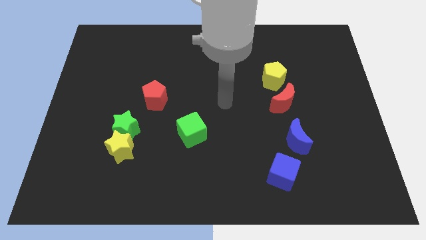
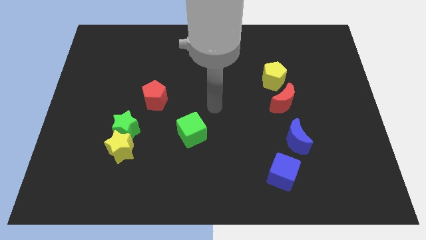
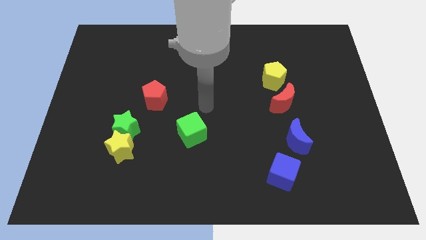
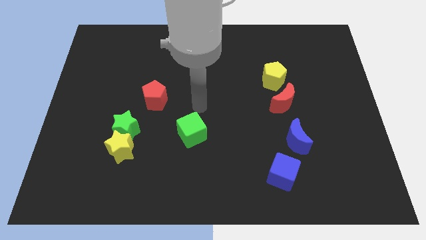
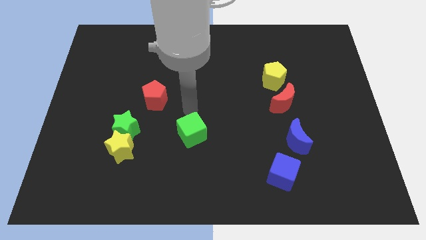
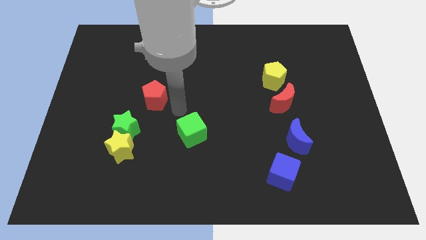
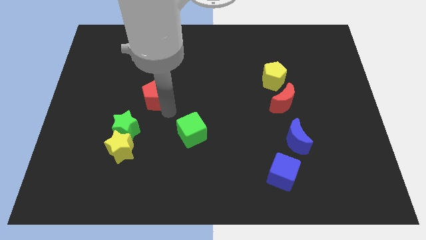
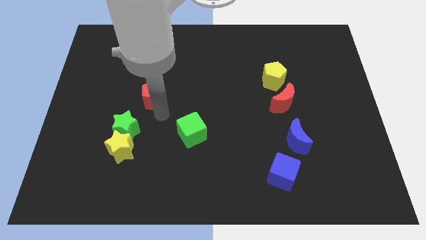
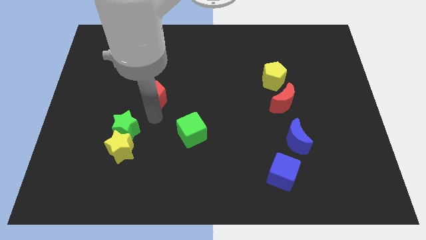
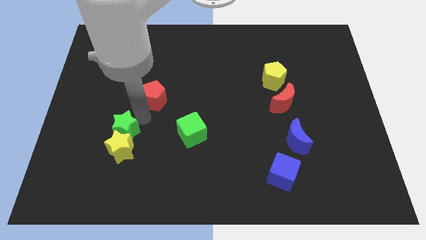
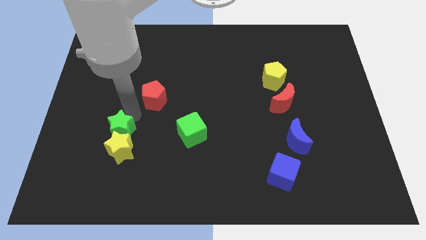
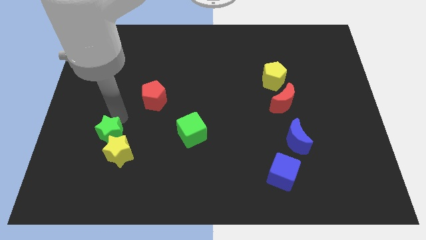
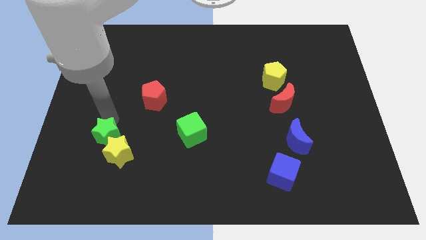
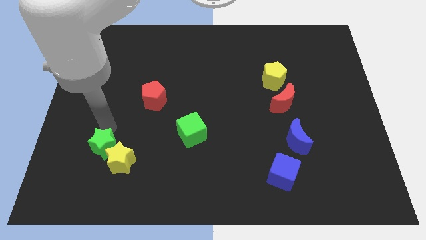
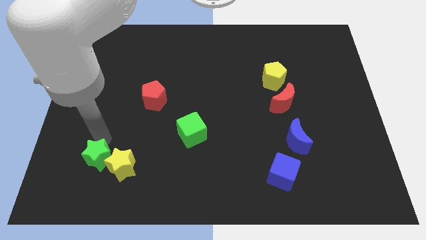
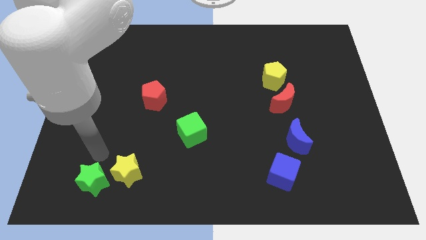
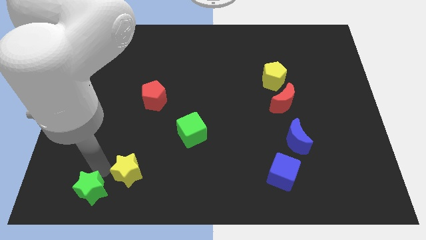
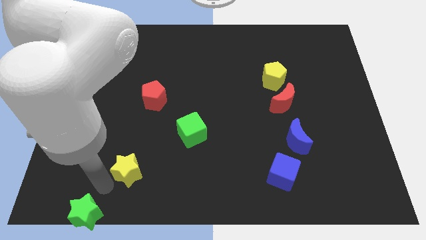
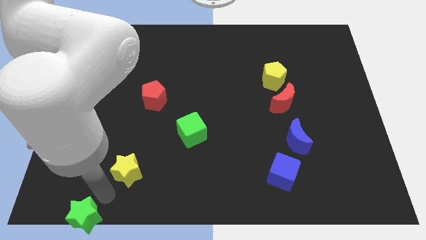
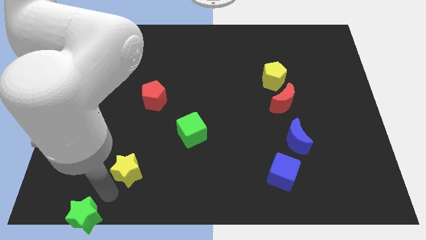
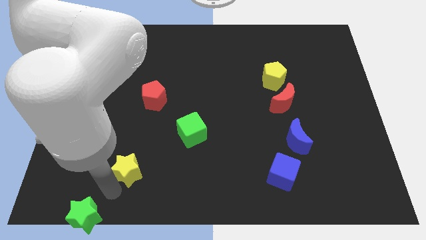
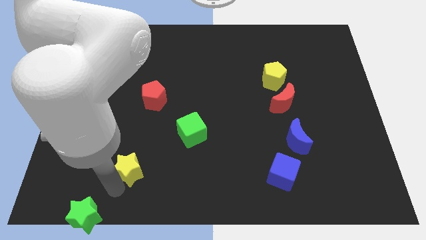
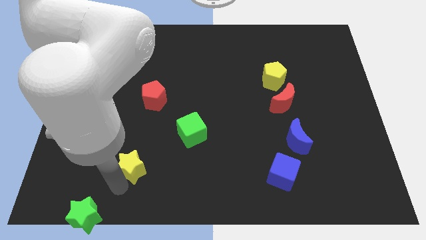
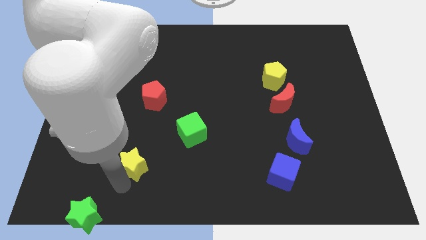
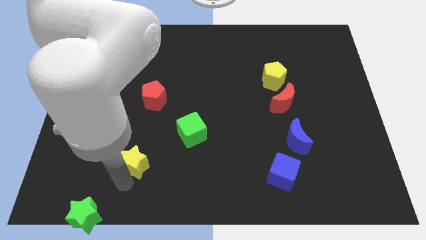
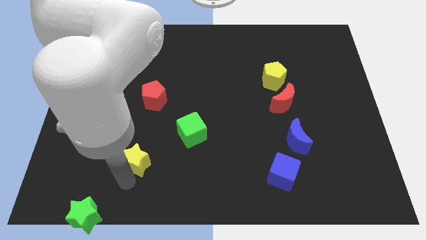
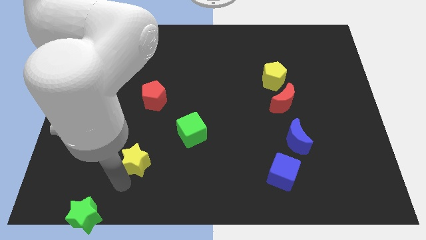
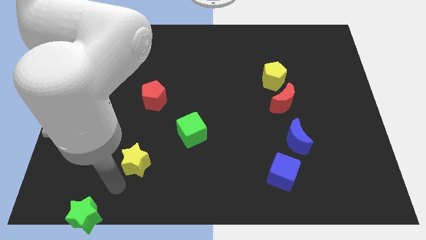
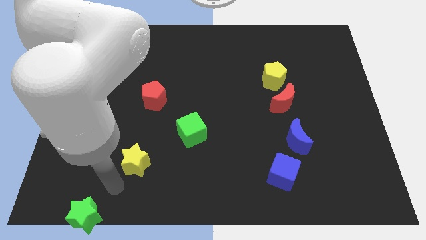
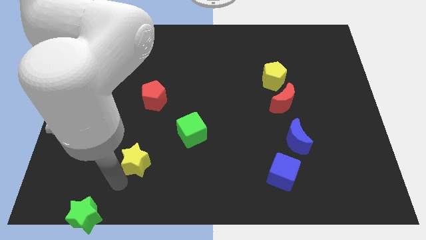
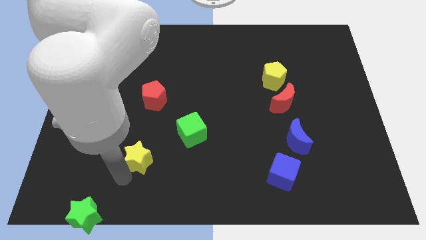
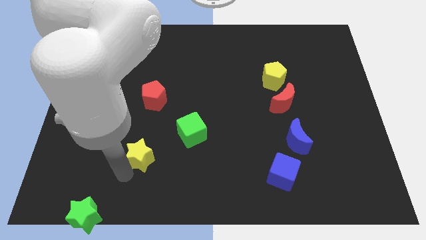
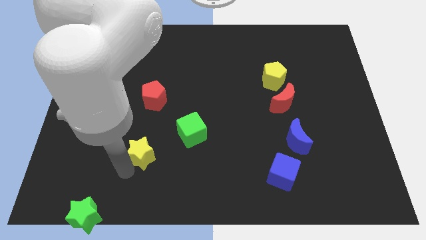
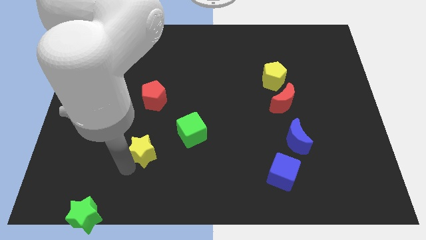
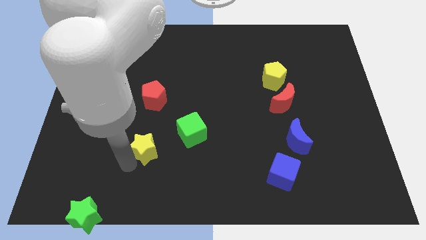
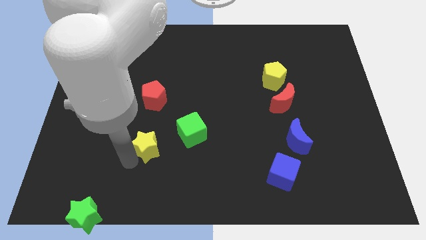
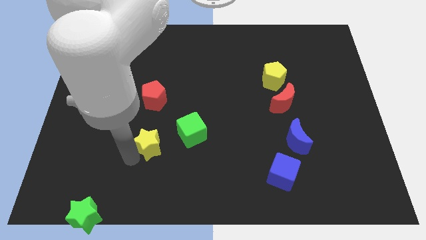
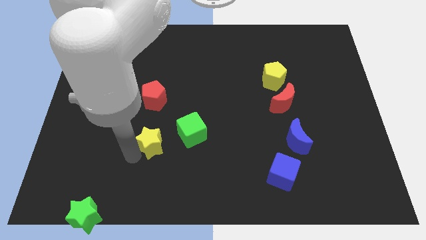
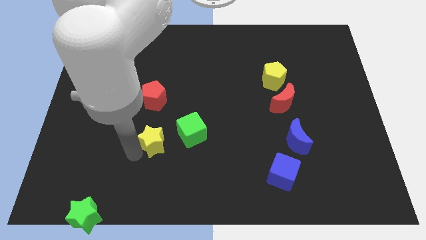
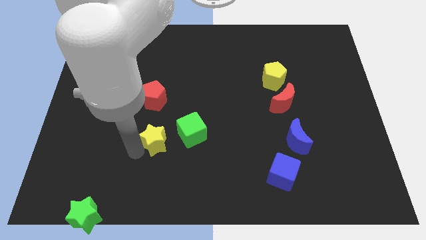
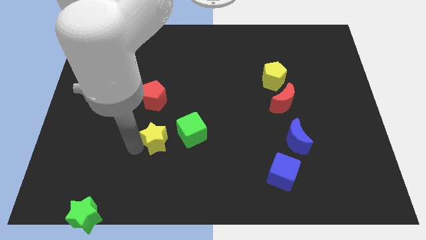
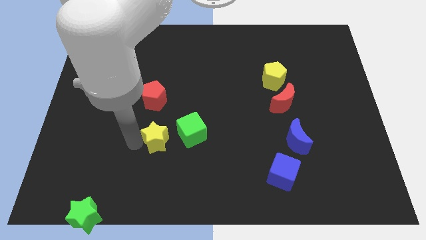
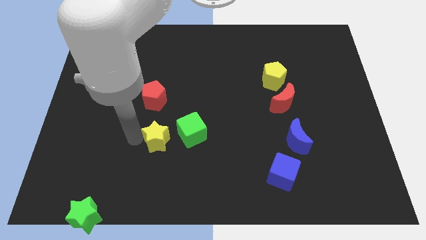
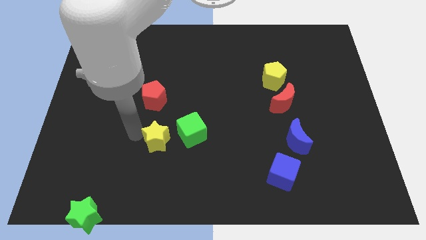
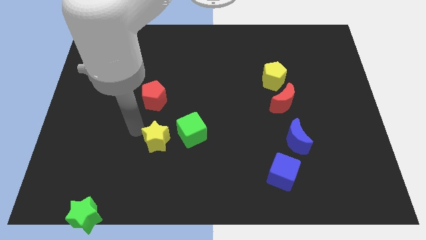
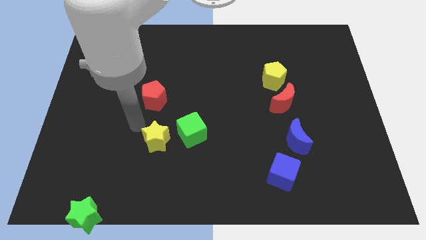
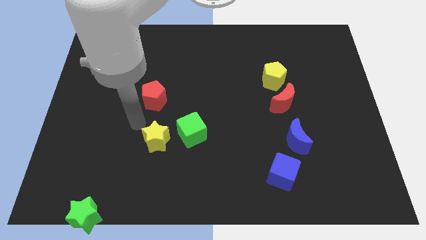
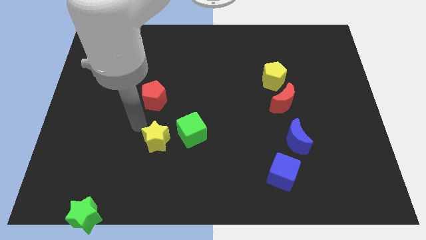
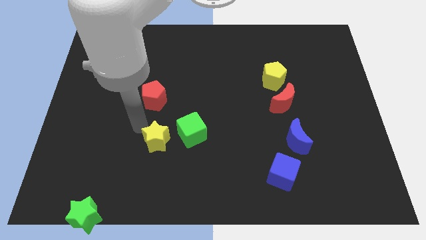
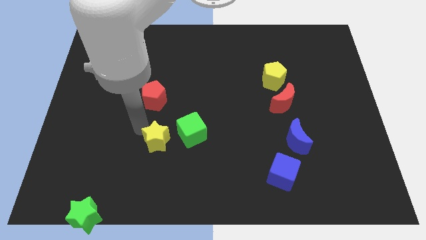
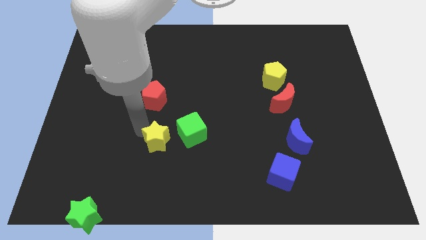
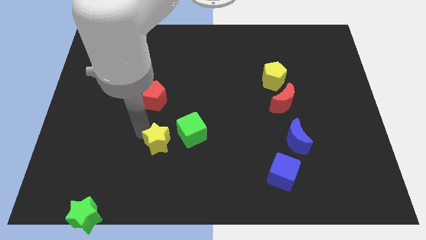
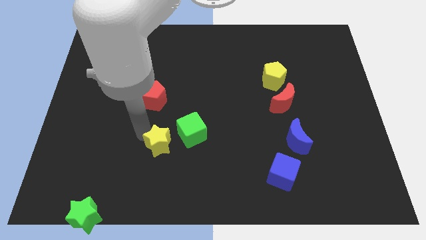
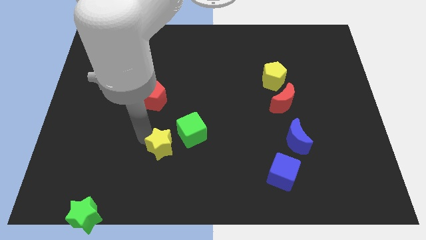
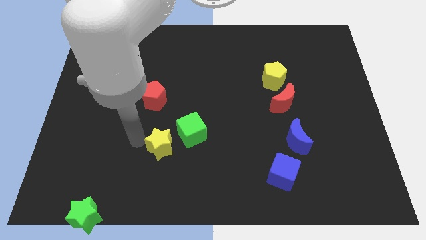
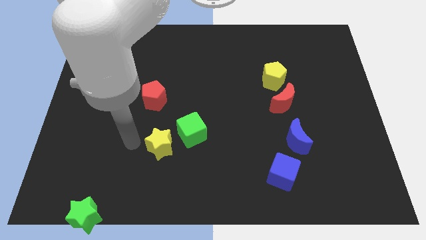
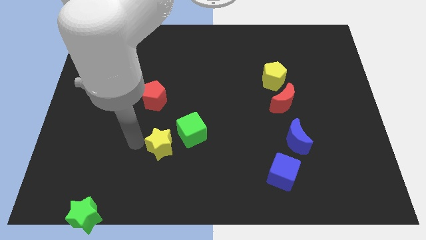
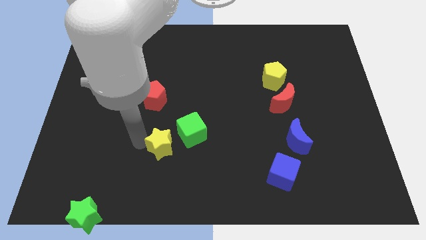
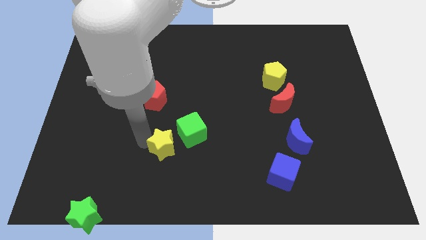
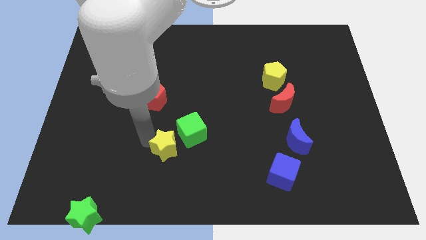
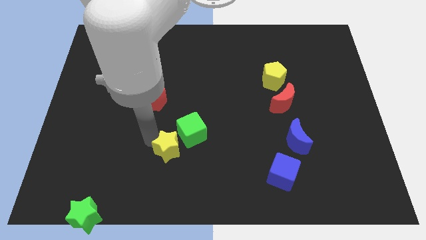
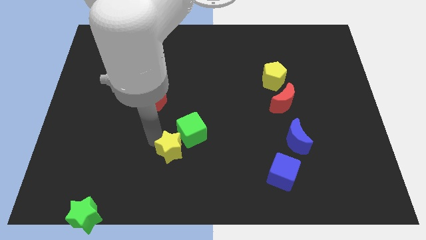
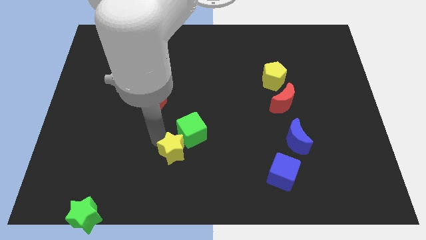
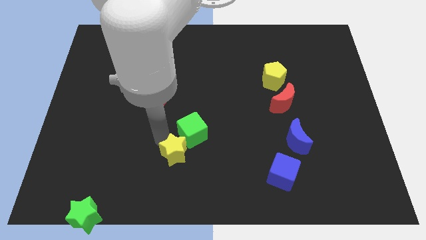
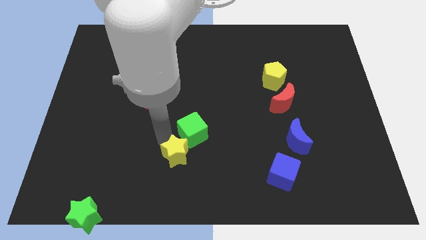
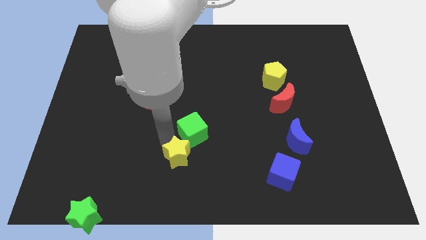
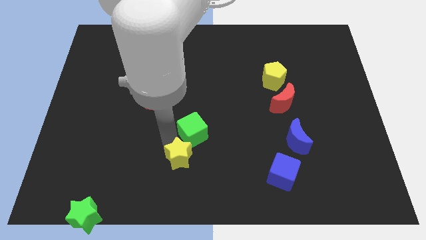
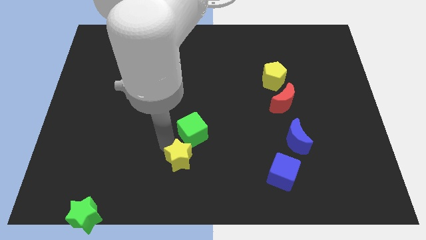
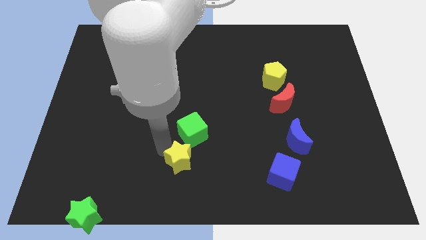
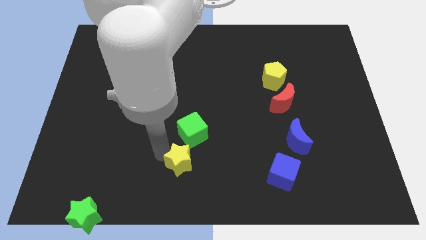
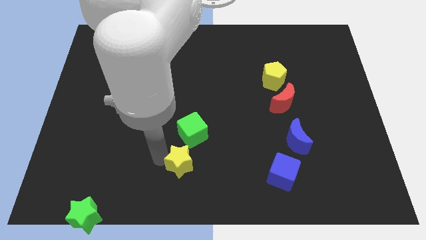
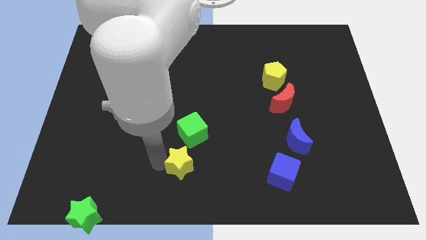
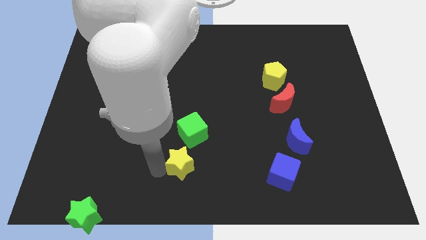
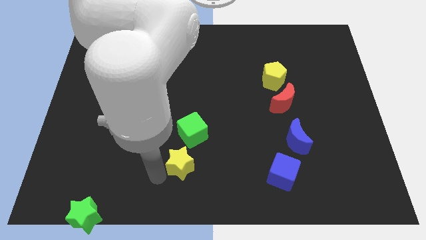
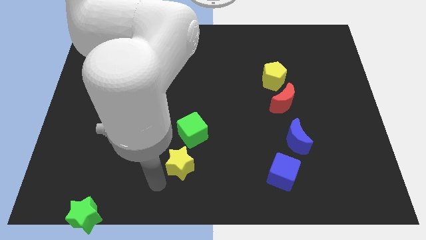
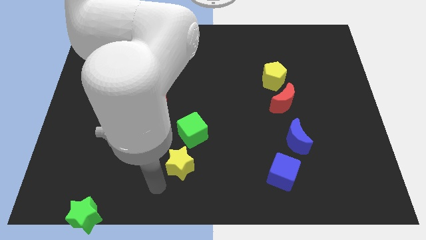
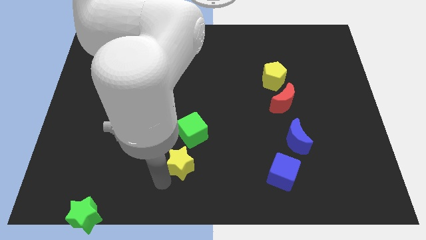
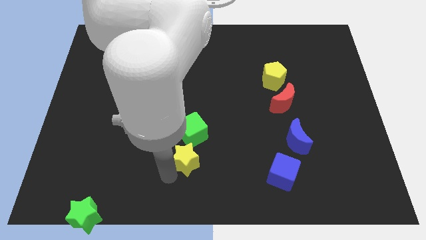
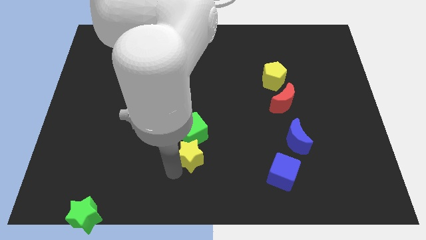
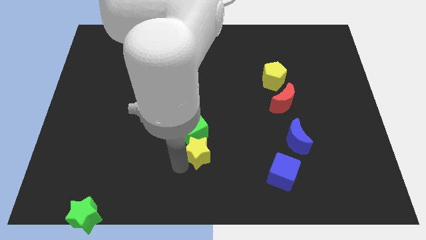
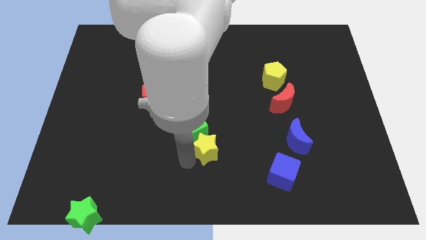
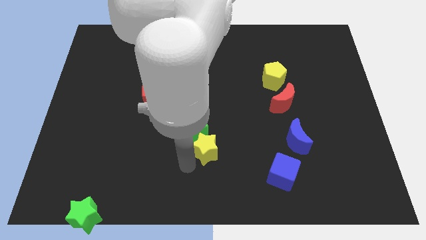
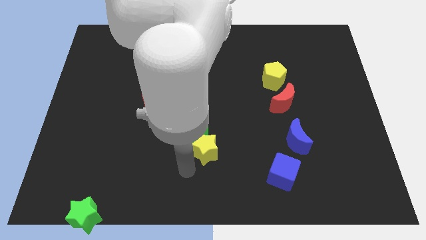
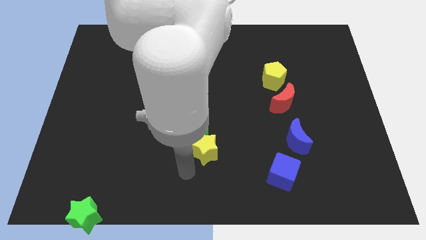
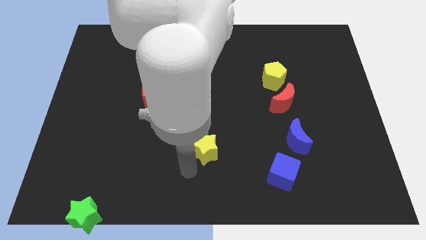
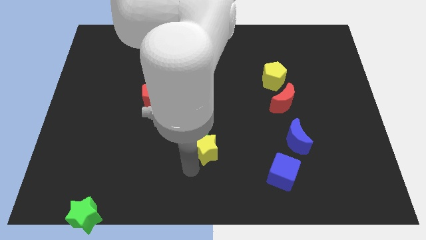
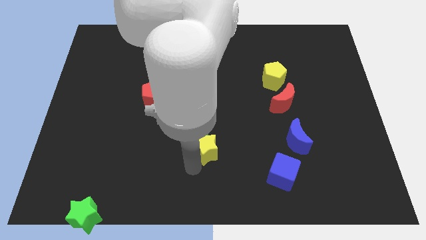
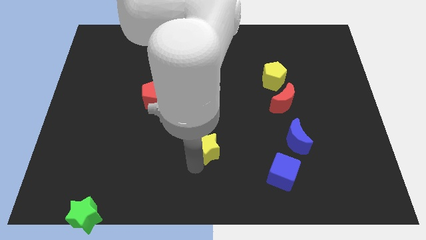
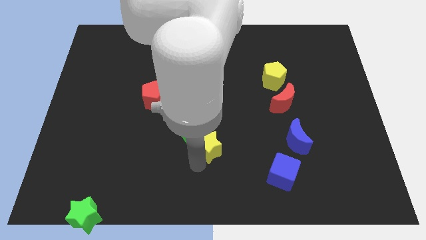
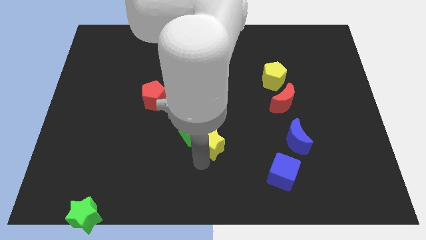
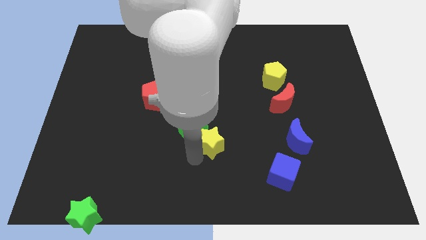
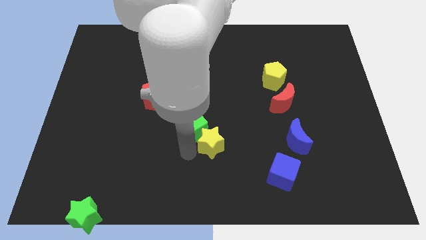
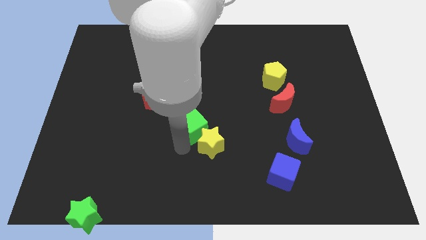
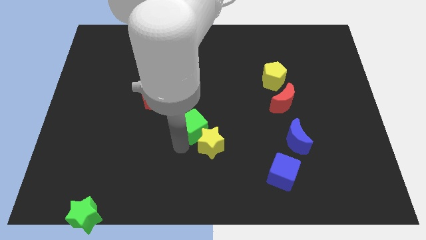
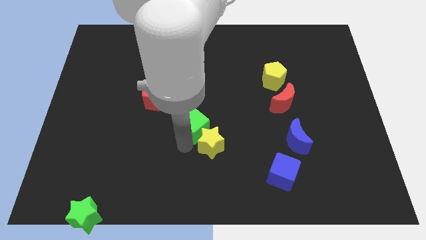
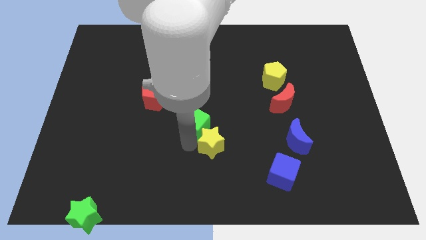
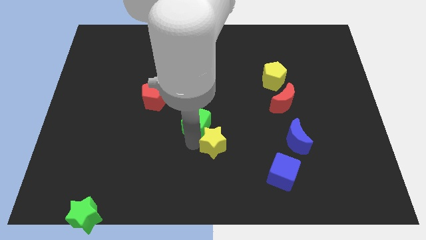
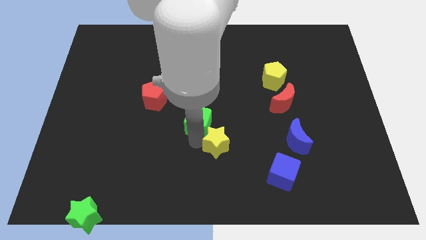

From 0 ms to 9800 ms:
push the yellow star right
